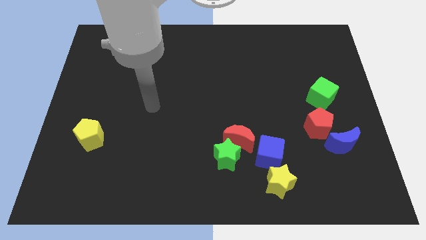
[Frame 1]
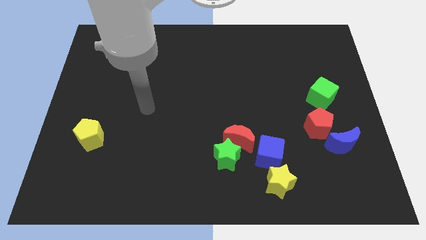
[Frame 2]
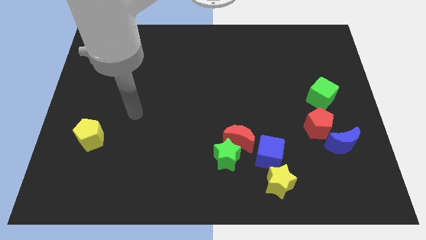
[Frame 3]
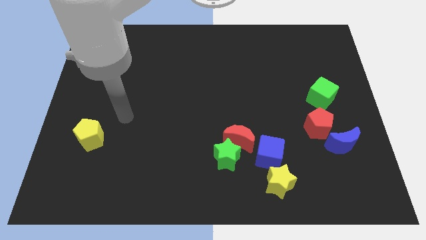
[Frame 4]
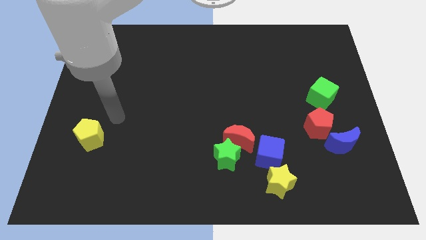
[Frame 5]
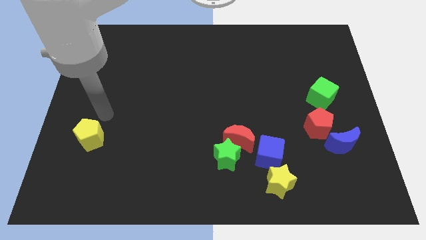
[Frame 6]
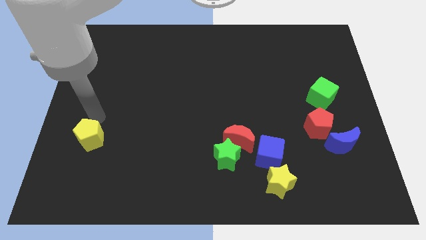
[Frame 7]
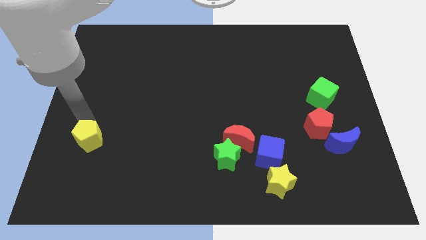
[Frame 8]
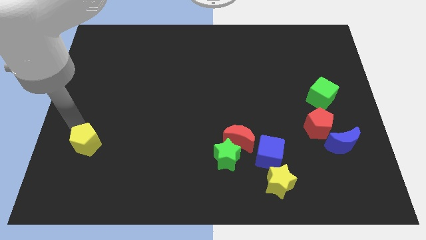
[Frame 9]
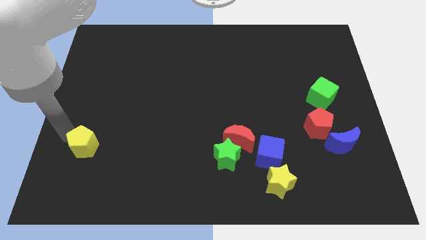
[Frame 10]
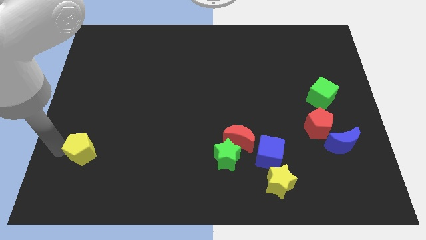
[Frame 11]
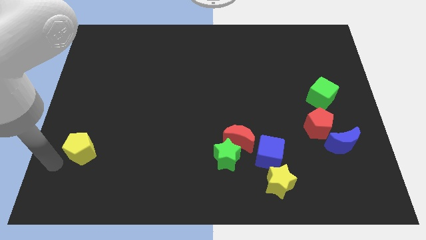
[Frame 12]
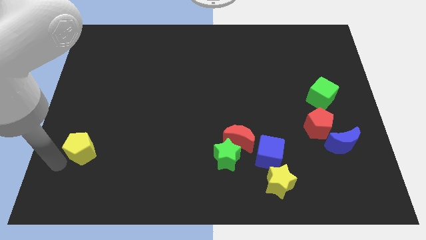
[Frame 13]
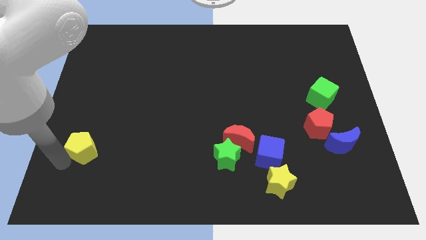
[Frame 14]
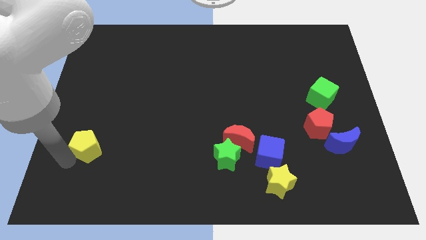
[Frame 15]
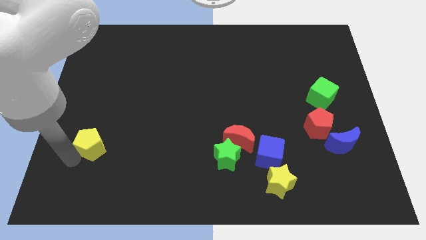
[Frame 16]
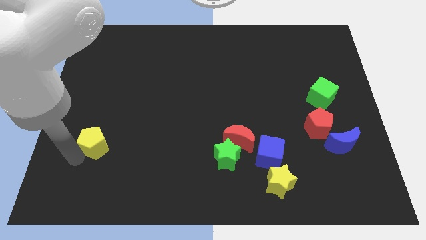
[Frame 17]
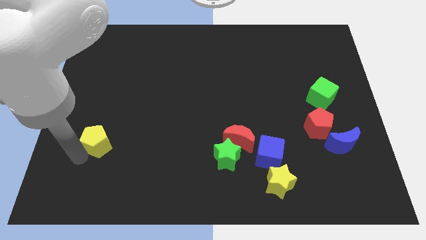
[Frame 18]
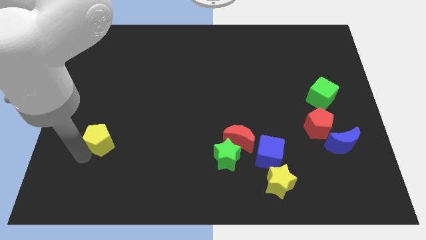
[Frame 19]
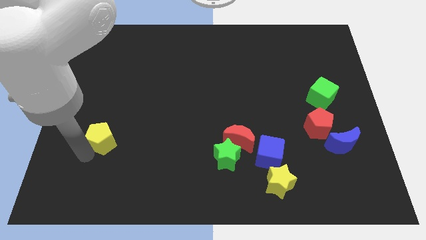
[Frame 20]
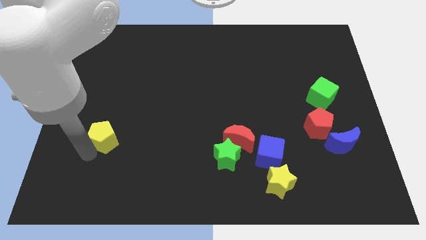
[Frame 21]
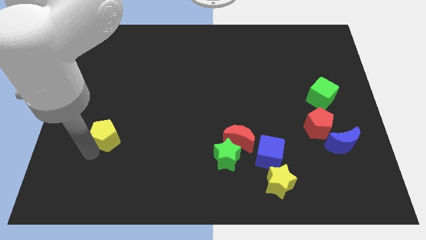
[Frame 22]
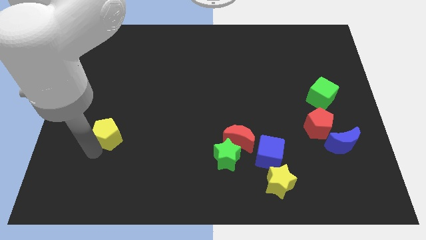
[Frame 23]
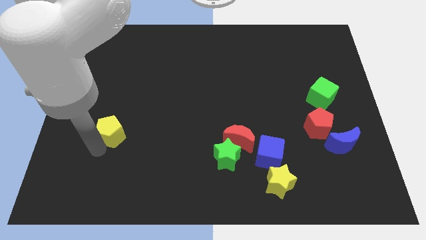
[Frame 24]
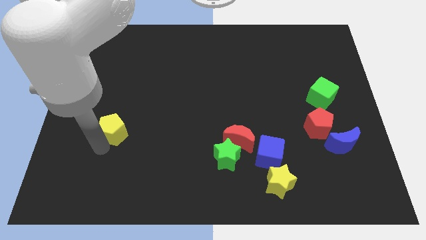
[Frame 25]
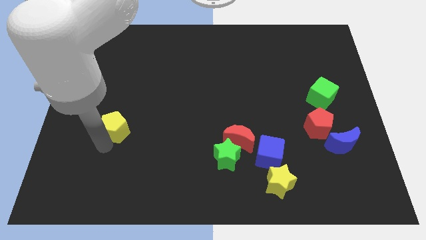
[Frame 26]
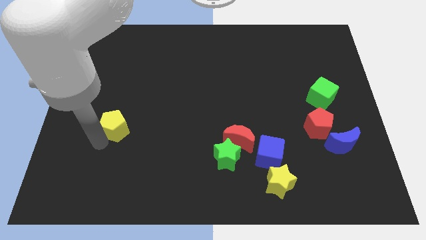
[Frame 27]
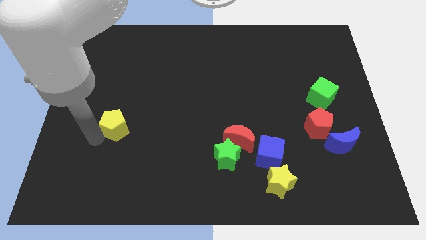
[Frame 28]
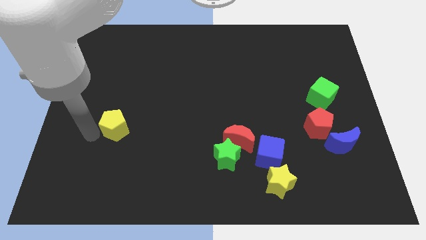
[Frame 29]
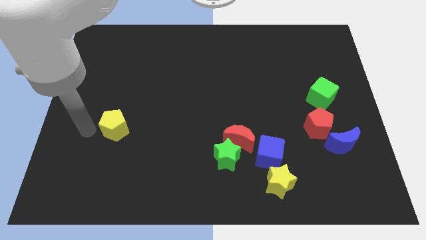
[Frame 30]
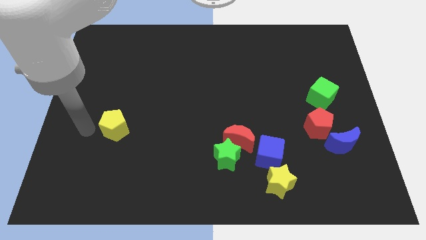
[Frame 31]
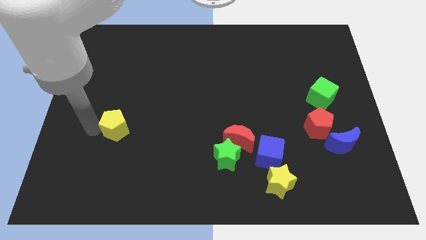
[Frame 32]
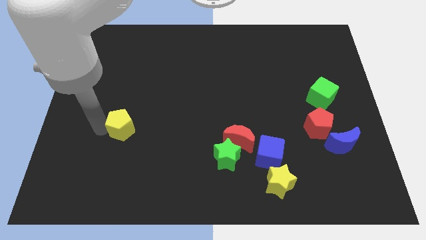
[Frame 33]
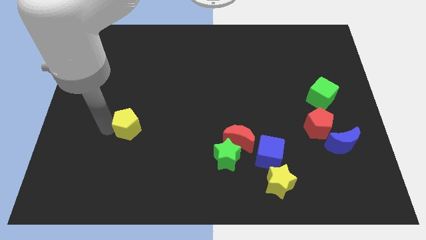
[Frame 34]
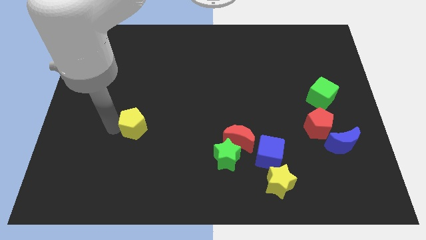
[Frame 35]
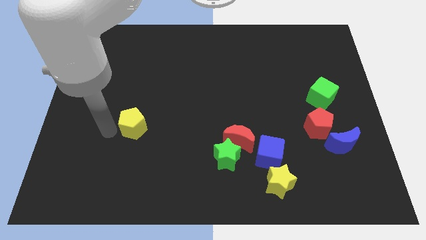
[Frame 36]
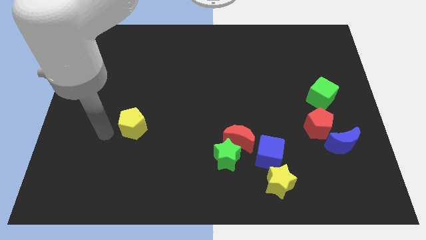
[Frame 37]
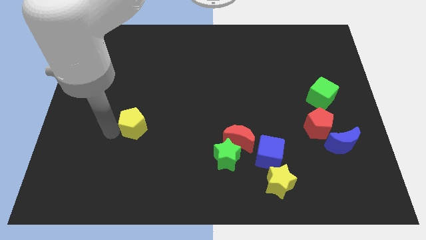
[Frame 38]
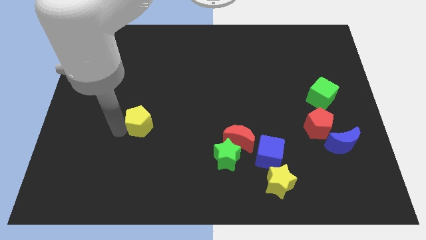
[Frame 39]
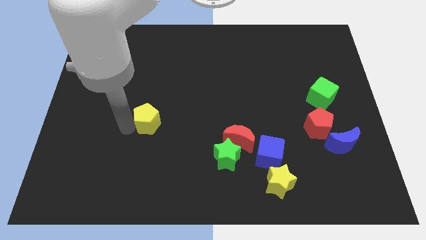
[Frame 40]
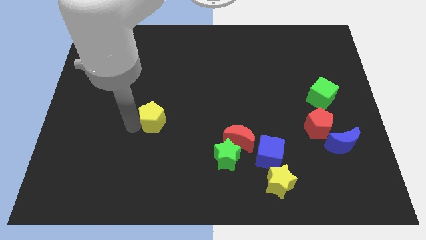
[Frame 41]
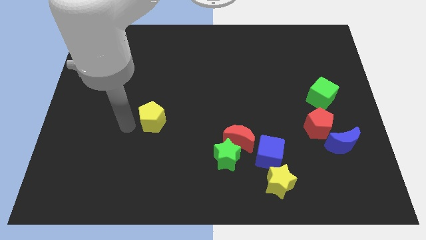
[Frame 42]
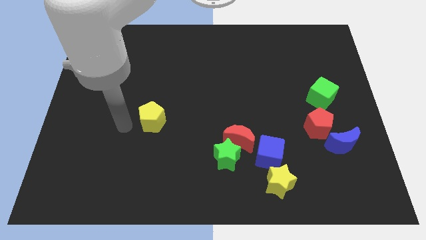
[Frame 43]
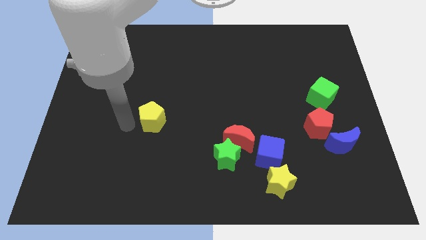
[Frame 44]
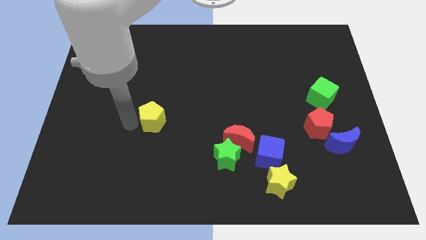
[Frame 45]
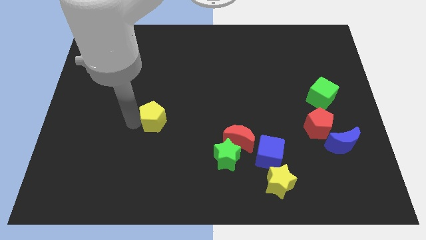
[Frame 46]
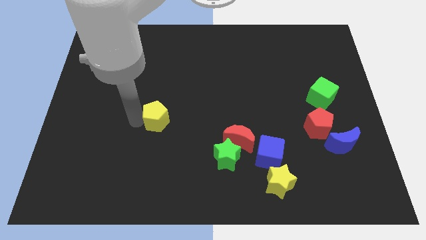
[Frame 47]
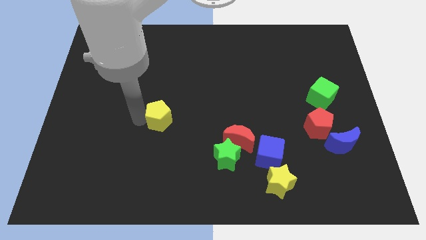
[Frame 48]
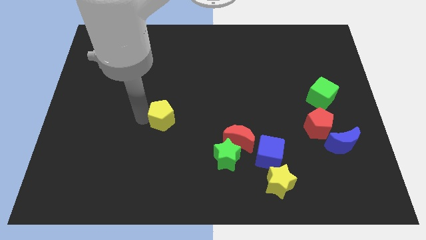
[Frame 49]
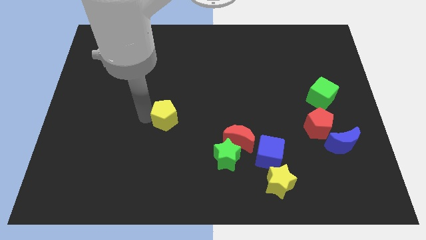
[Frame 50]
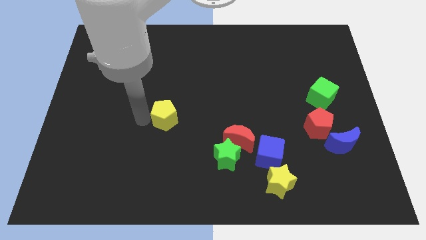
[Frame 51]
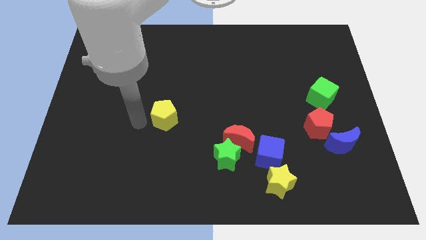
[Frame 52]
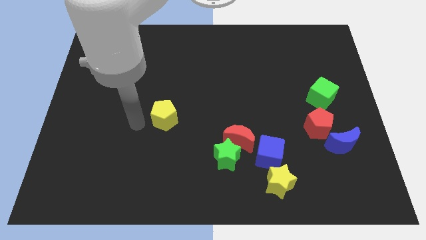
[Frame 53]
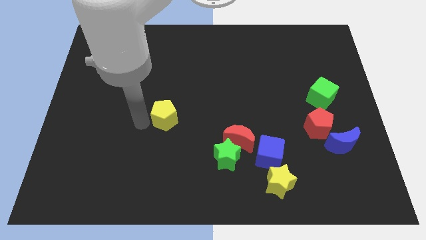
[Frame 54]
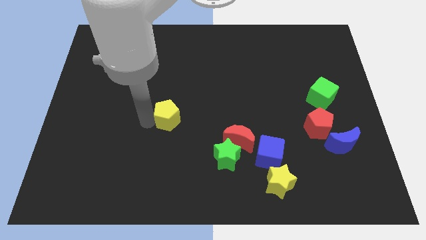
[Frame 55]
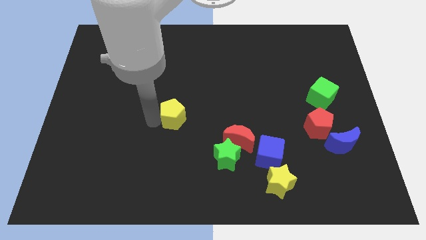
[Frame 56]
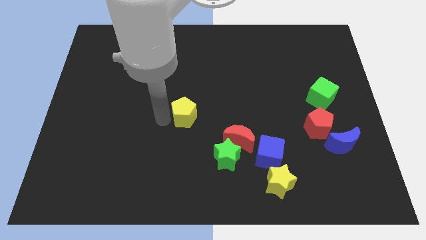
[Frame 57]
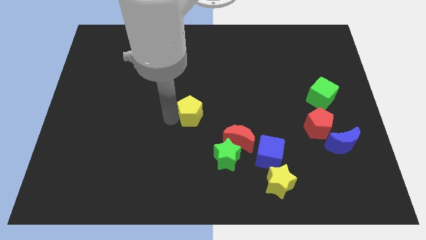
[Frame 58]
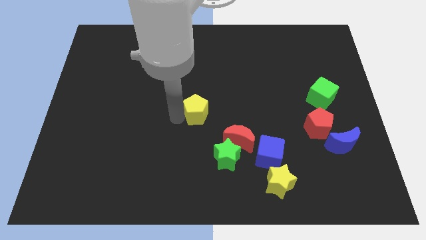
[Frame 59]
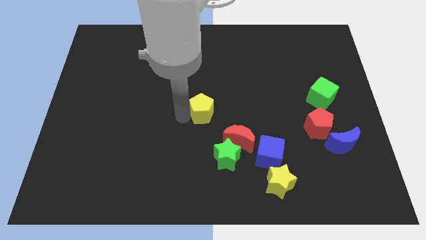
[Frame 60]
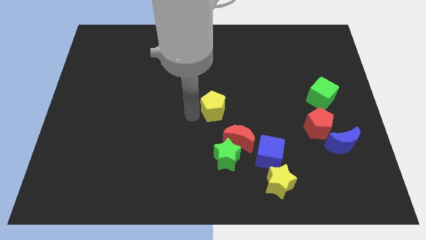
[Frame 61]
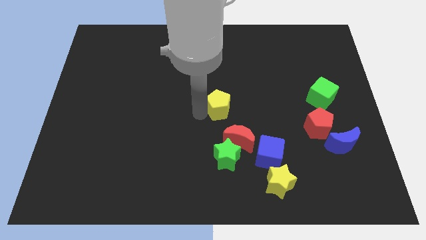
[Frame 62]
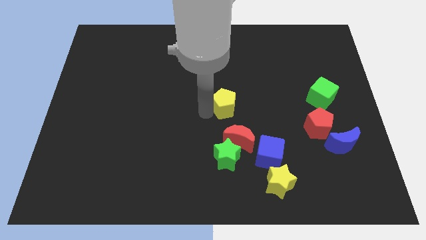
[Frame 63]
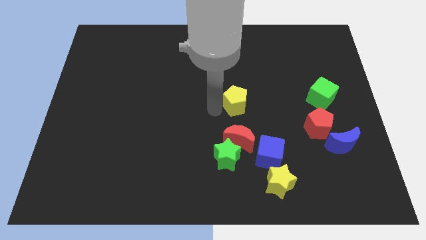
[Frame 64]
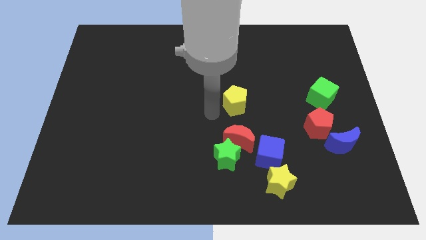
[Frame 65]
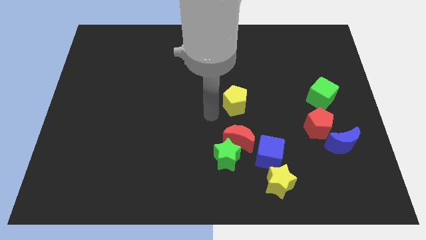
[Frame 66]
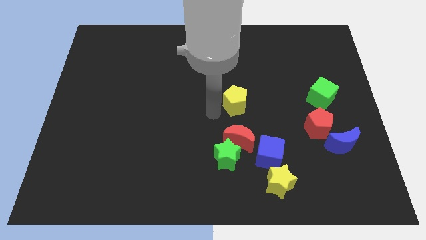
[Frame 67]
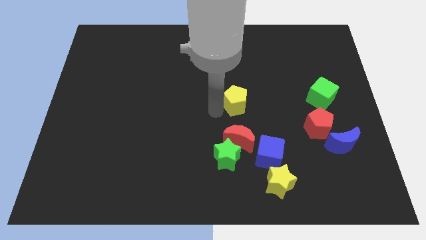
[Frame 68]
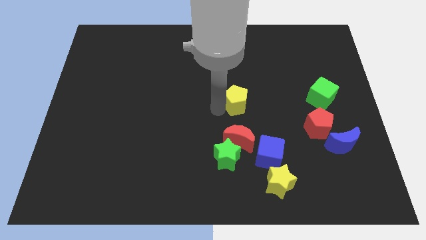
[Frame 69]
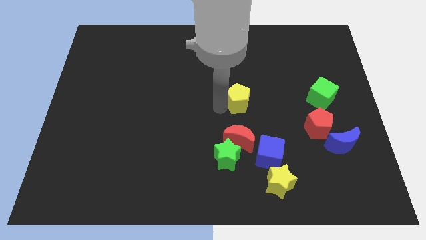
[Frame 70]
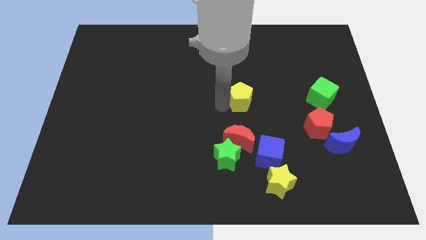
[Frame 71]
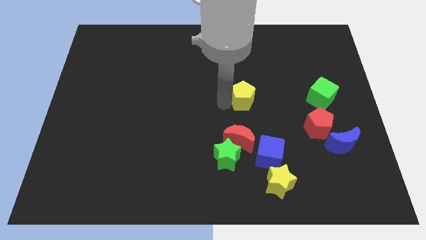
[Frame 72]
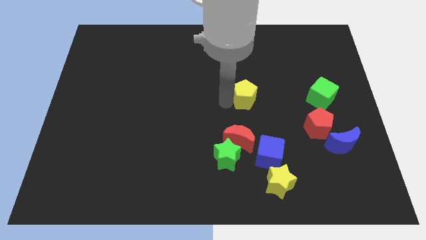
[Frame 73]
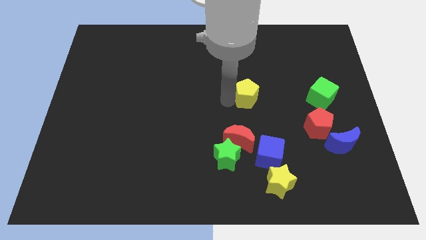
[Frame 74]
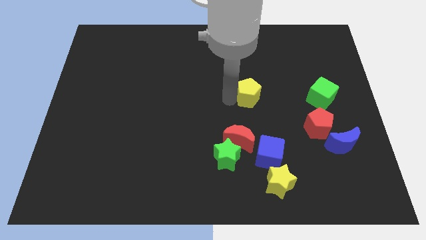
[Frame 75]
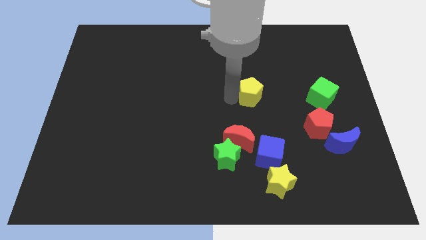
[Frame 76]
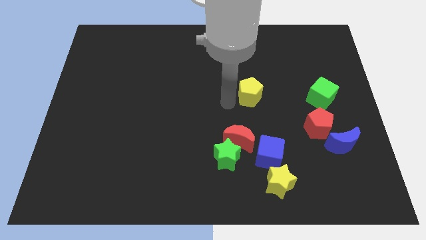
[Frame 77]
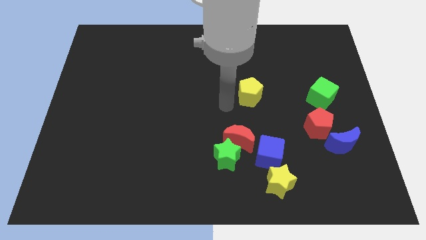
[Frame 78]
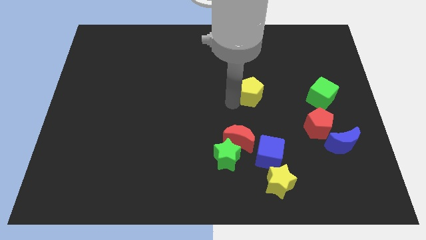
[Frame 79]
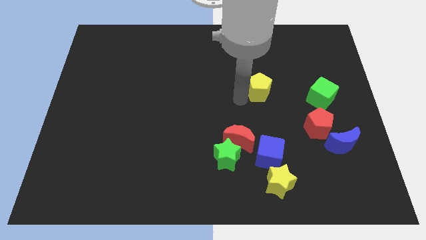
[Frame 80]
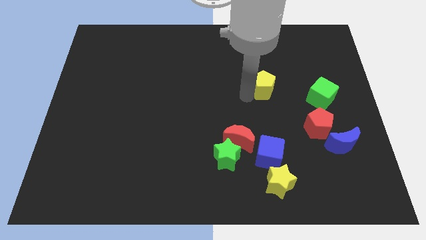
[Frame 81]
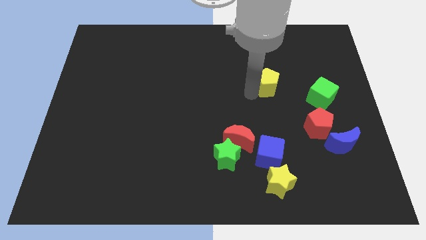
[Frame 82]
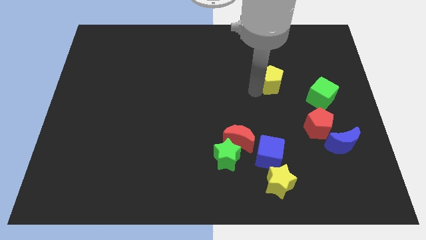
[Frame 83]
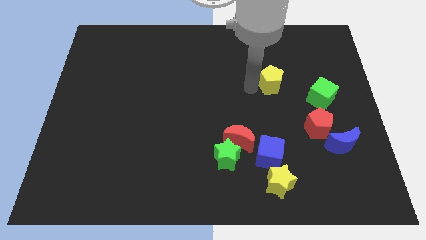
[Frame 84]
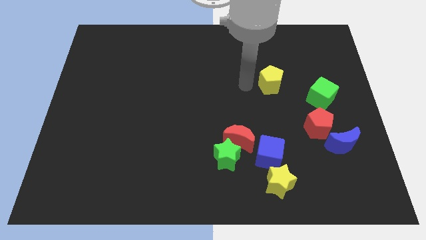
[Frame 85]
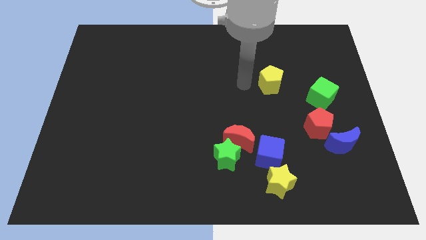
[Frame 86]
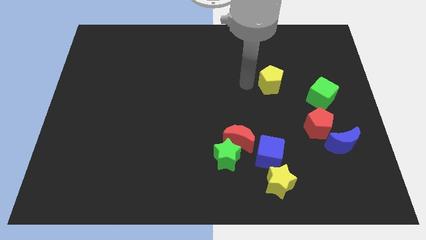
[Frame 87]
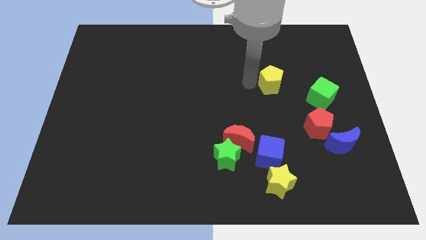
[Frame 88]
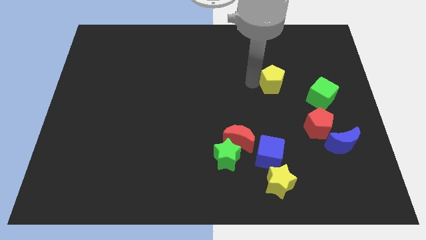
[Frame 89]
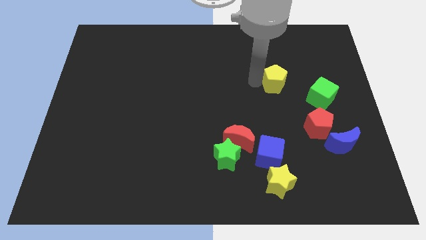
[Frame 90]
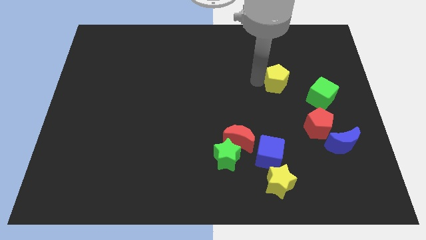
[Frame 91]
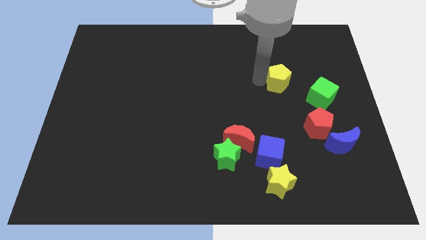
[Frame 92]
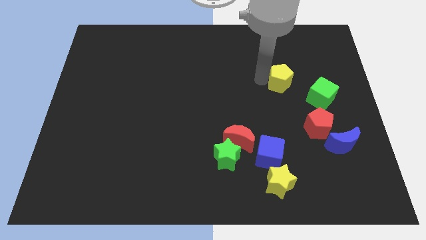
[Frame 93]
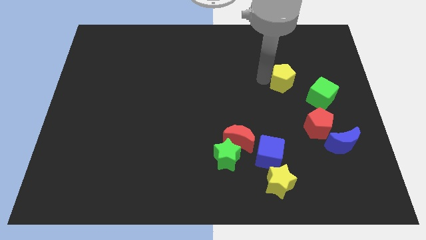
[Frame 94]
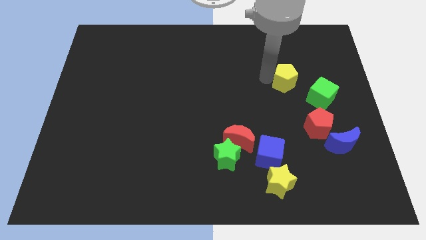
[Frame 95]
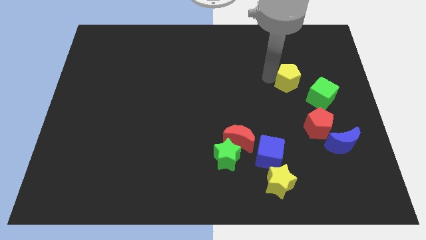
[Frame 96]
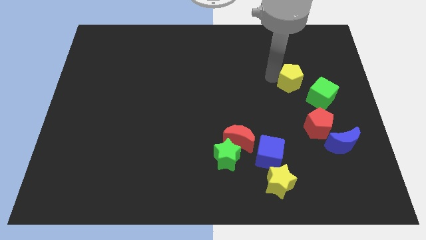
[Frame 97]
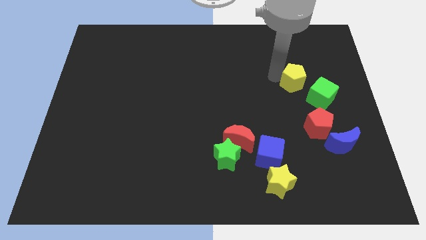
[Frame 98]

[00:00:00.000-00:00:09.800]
push the yellow pentagon to the top of the red pentagon
